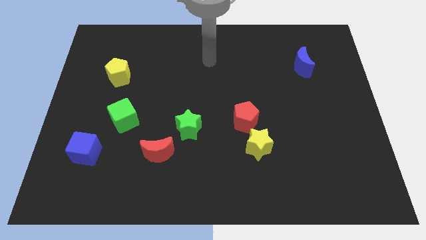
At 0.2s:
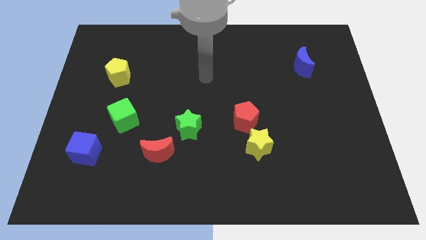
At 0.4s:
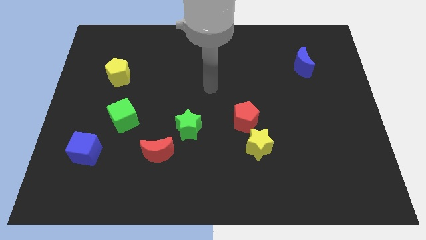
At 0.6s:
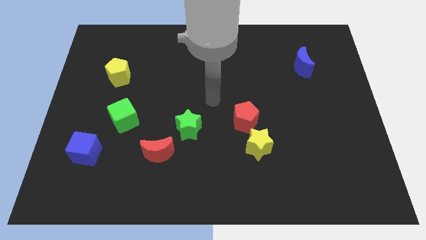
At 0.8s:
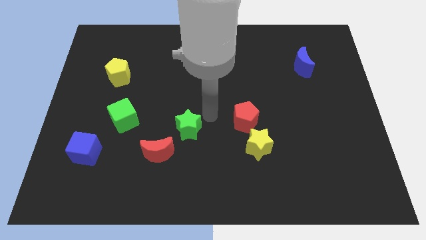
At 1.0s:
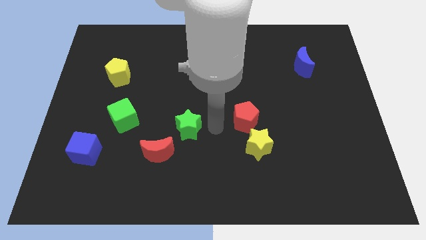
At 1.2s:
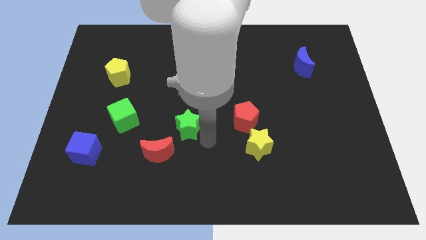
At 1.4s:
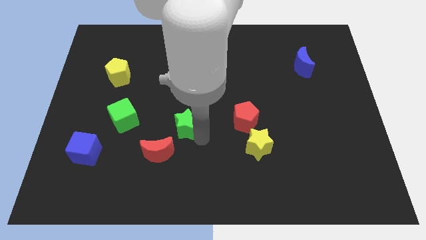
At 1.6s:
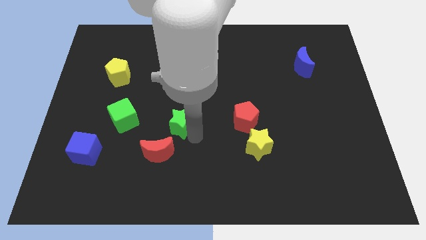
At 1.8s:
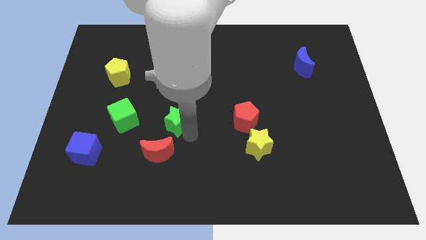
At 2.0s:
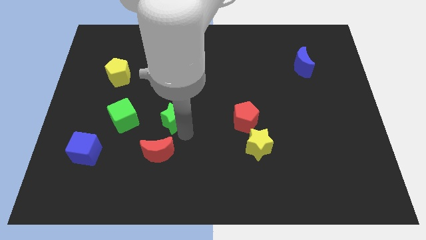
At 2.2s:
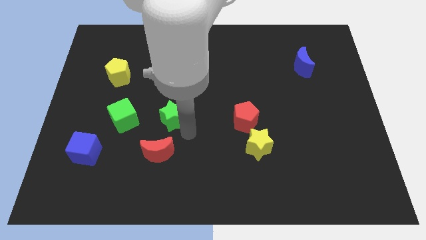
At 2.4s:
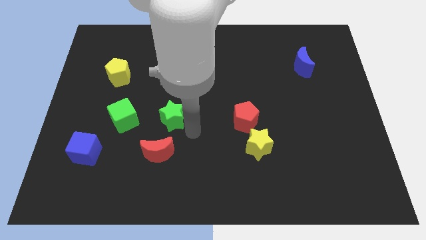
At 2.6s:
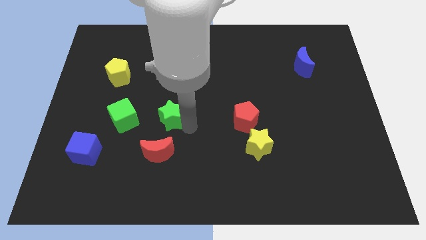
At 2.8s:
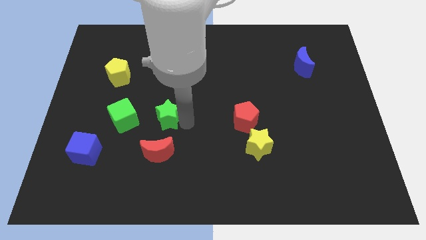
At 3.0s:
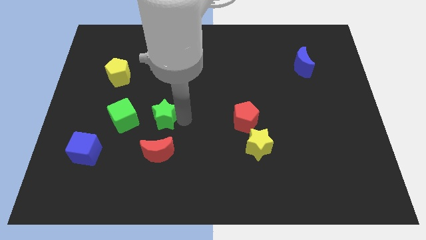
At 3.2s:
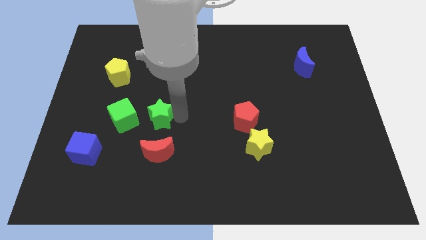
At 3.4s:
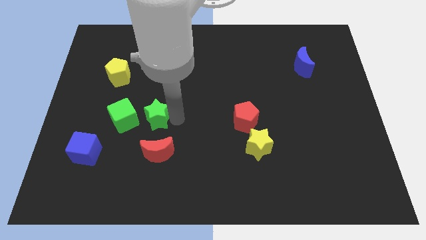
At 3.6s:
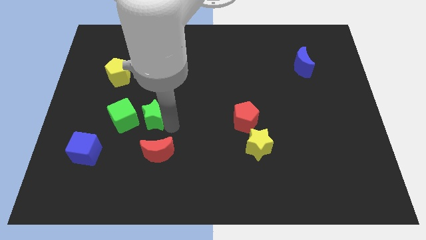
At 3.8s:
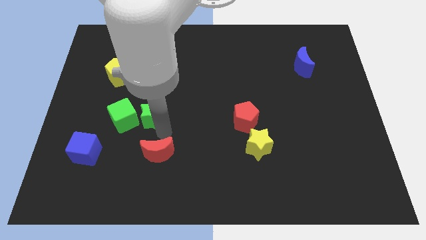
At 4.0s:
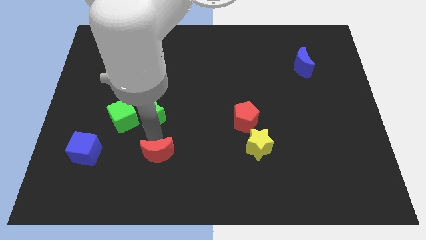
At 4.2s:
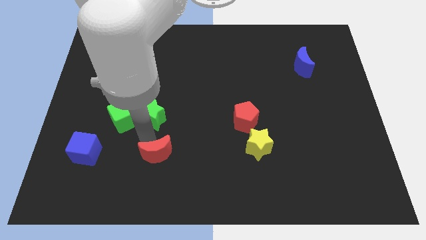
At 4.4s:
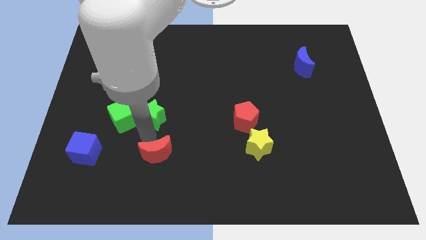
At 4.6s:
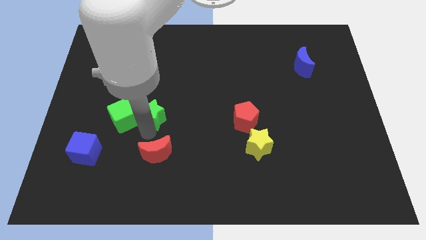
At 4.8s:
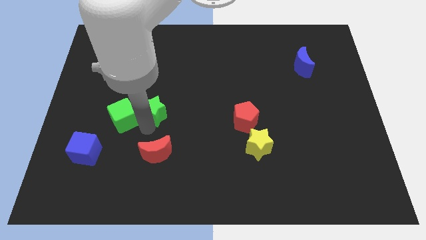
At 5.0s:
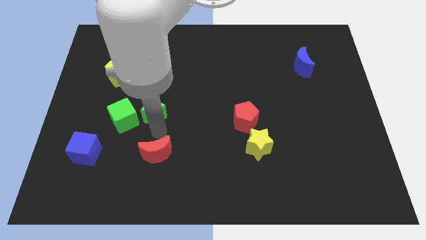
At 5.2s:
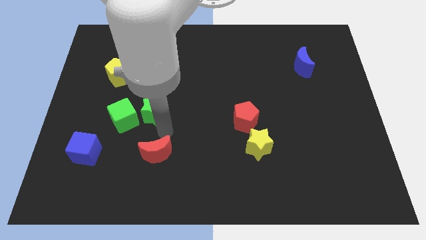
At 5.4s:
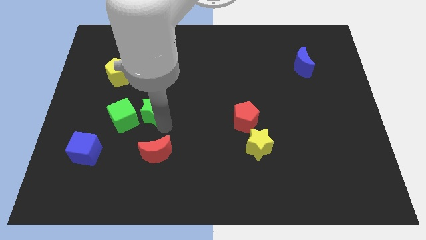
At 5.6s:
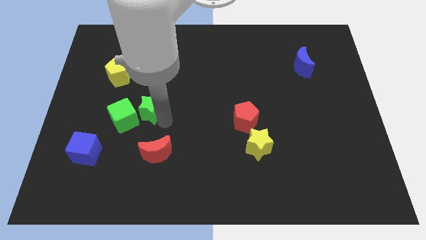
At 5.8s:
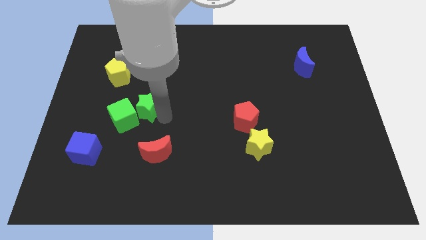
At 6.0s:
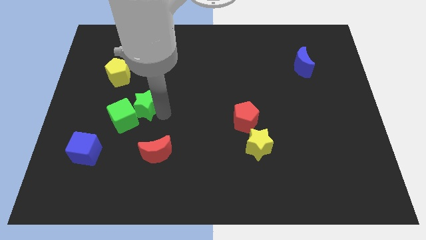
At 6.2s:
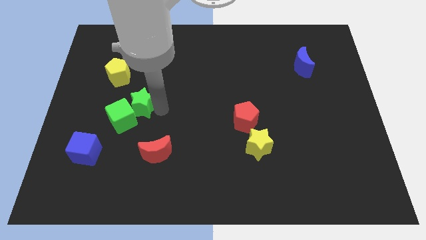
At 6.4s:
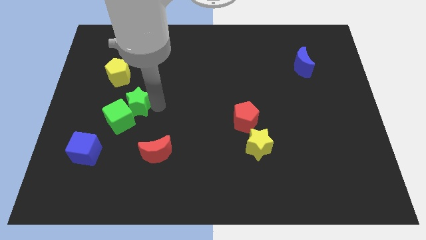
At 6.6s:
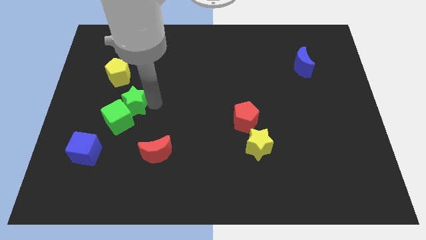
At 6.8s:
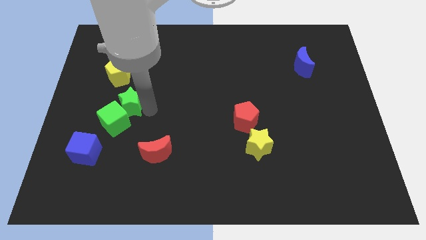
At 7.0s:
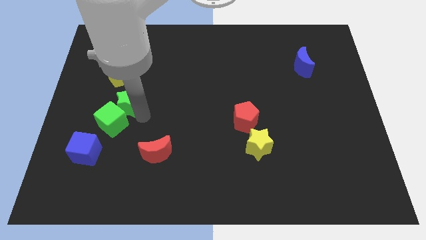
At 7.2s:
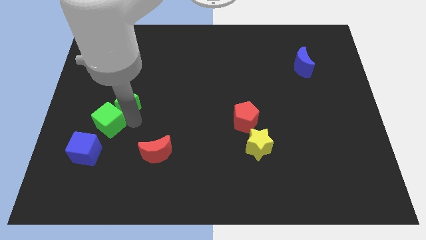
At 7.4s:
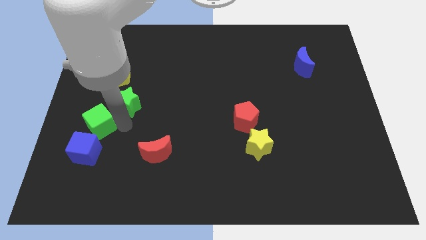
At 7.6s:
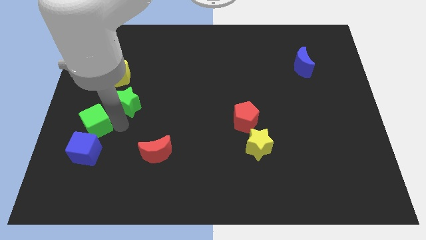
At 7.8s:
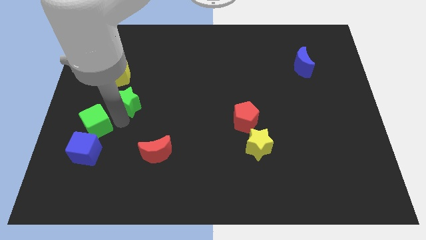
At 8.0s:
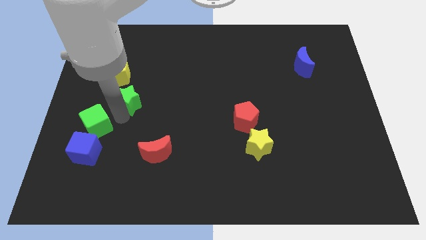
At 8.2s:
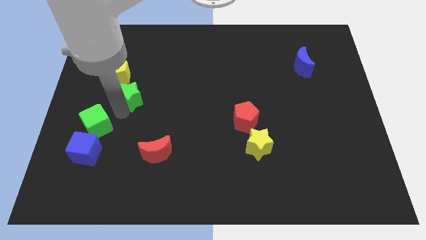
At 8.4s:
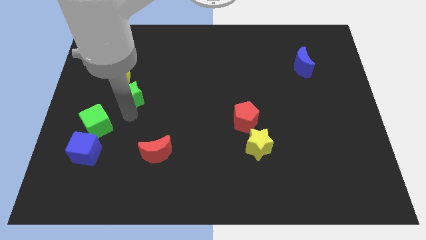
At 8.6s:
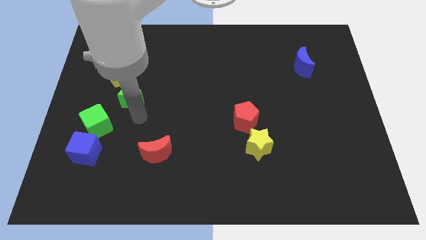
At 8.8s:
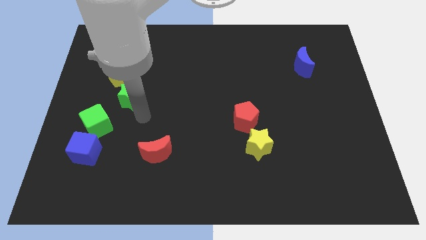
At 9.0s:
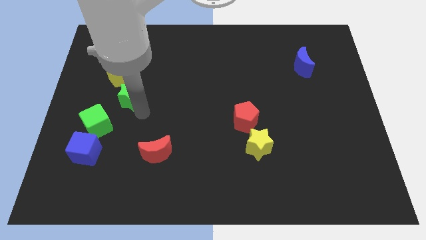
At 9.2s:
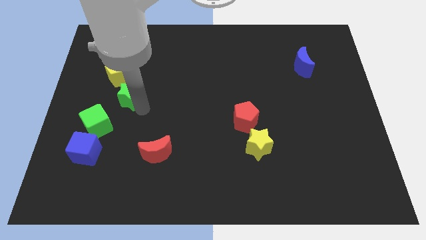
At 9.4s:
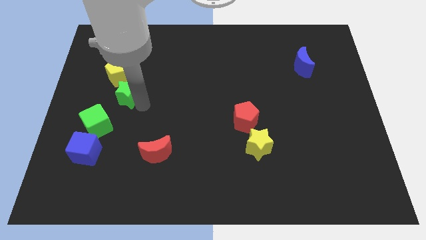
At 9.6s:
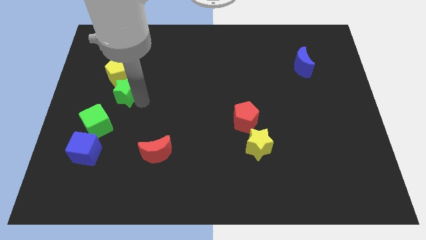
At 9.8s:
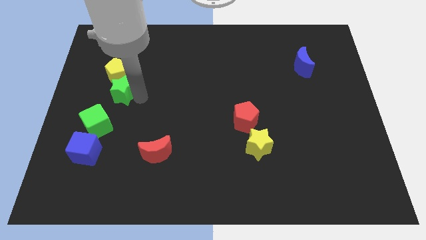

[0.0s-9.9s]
move the green star towards the yellow pentagon

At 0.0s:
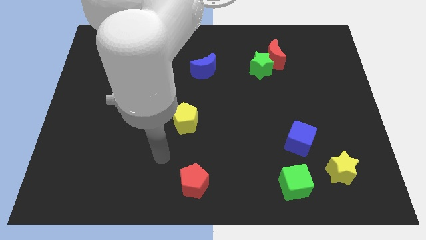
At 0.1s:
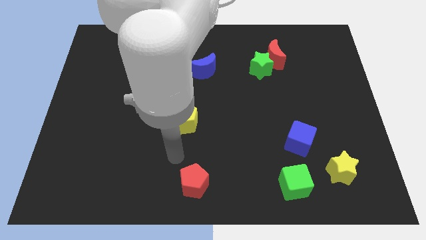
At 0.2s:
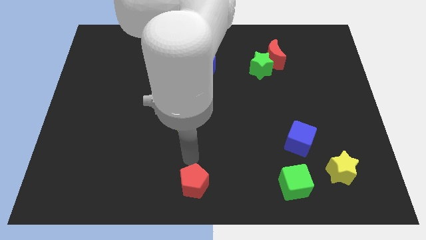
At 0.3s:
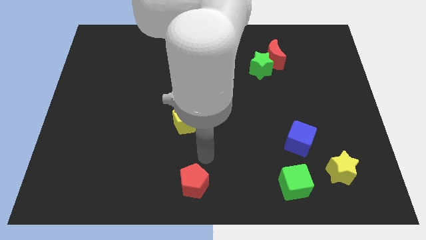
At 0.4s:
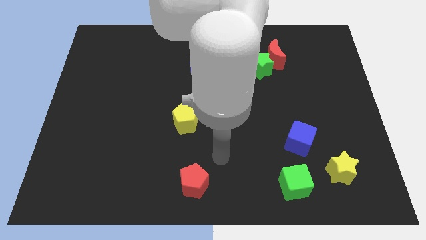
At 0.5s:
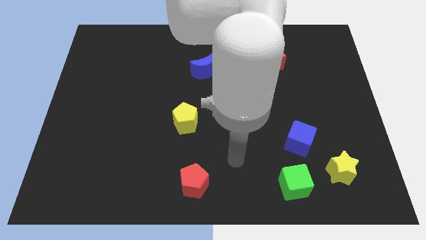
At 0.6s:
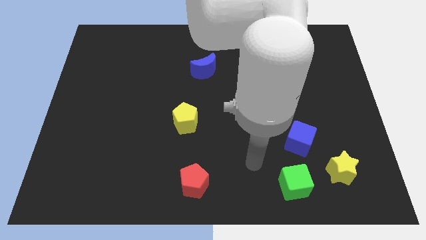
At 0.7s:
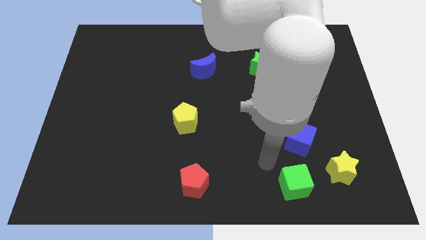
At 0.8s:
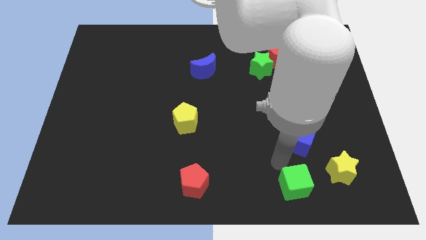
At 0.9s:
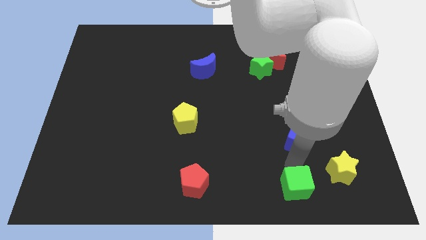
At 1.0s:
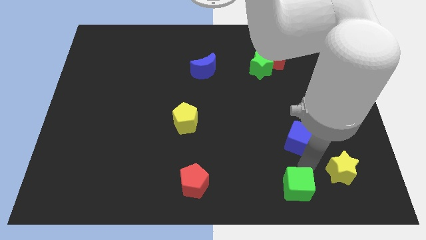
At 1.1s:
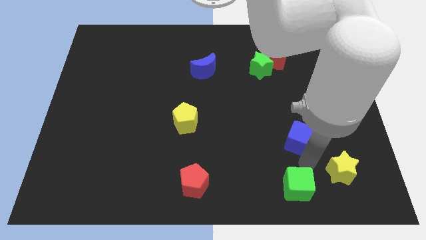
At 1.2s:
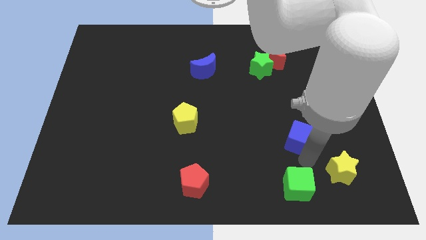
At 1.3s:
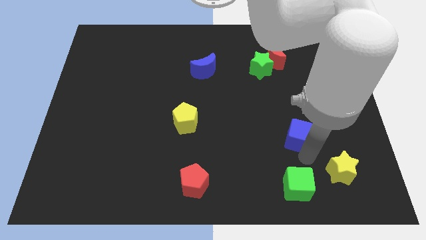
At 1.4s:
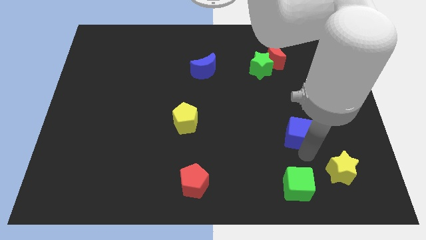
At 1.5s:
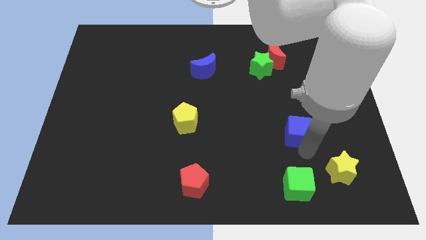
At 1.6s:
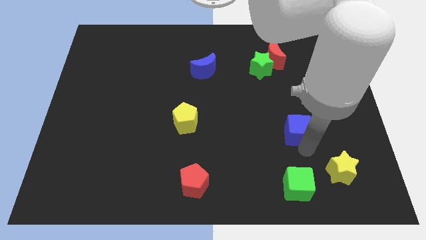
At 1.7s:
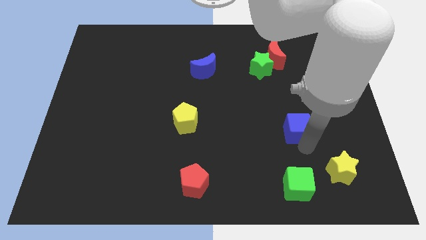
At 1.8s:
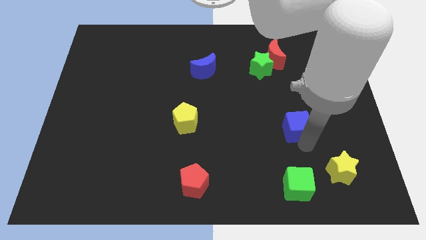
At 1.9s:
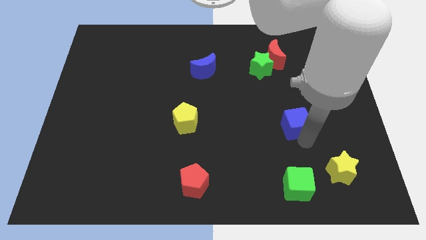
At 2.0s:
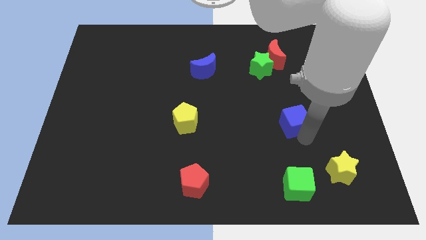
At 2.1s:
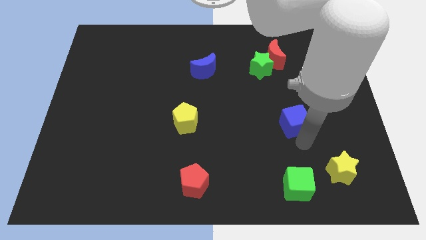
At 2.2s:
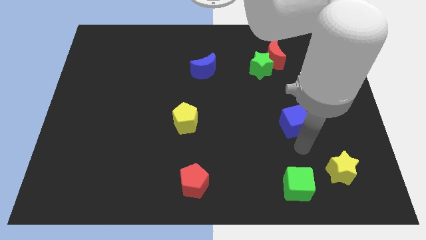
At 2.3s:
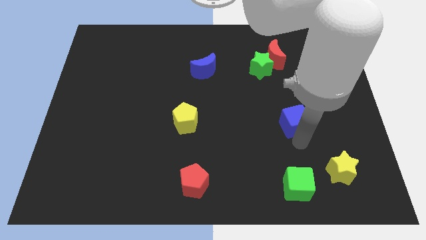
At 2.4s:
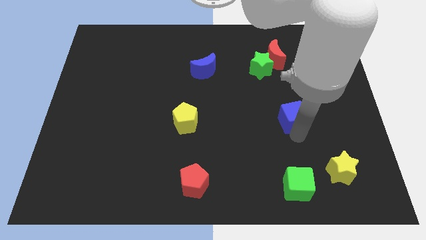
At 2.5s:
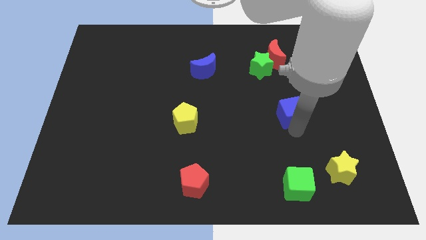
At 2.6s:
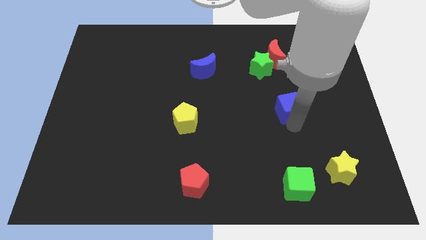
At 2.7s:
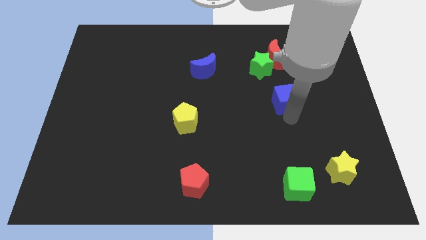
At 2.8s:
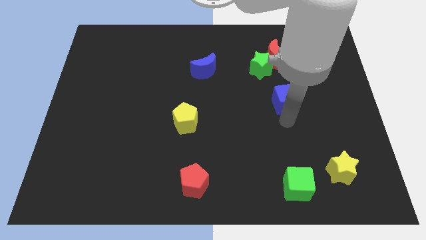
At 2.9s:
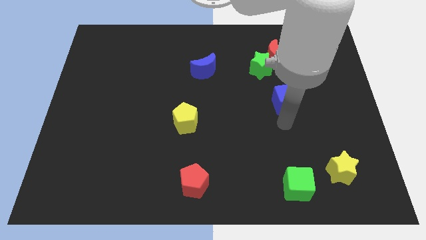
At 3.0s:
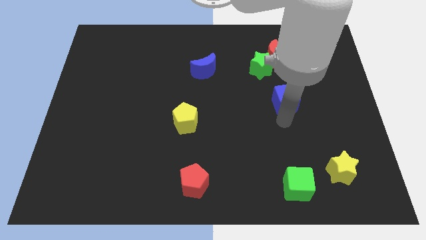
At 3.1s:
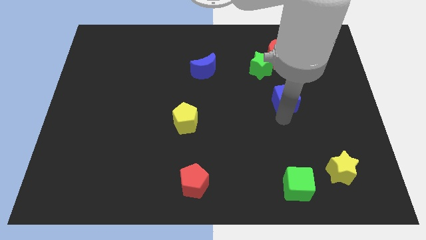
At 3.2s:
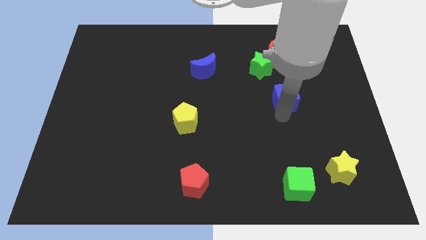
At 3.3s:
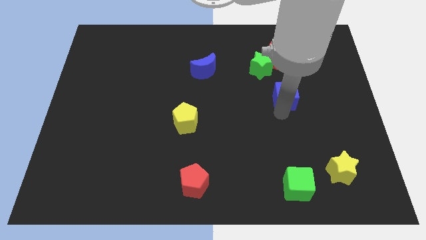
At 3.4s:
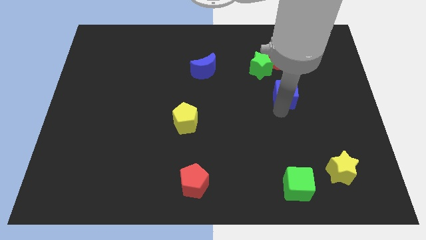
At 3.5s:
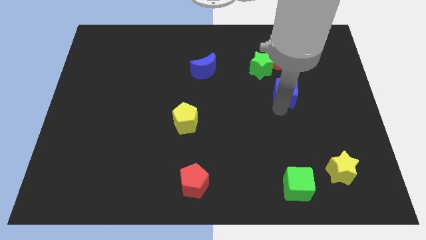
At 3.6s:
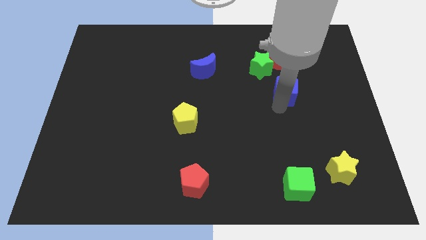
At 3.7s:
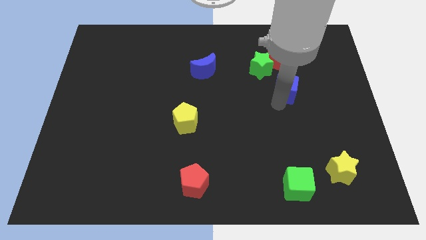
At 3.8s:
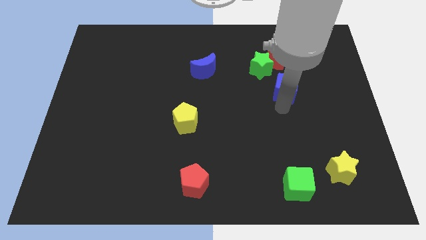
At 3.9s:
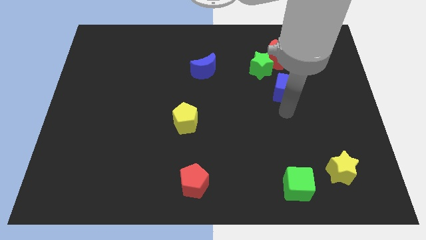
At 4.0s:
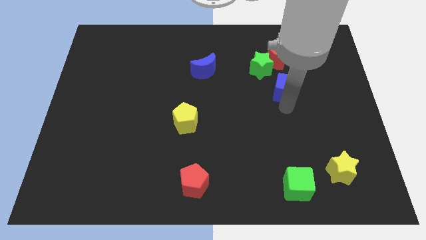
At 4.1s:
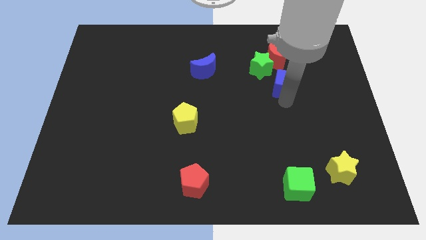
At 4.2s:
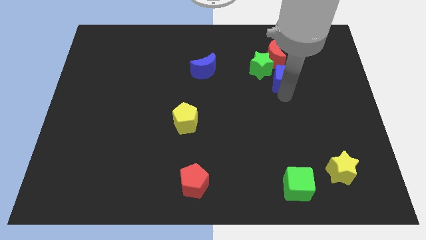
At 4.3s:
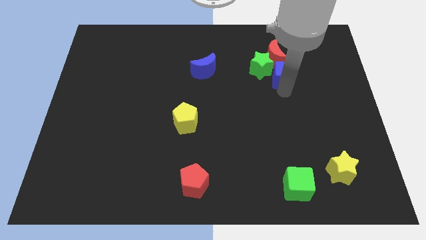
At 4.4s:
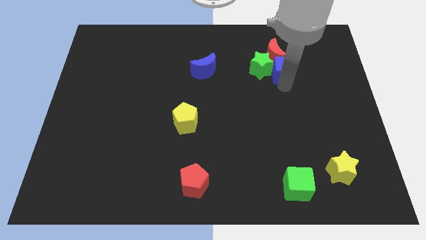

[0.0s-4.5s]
put the blue cube close to the red moon
